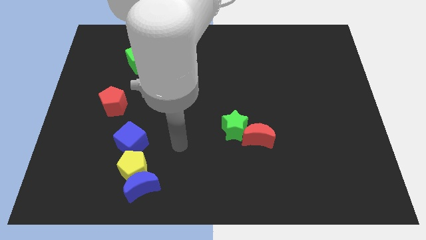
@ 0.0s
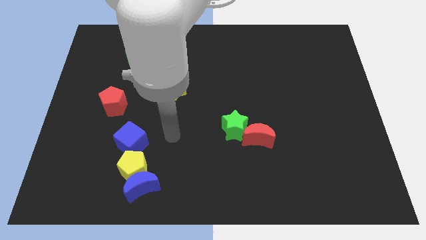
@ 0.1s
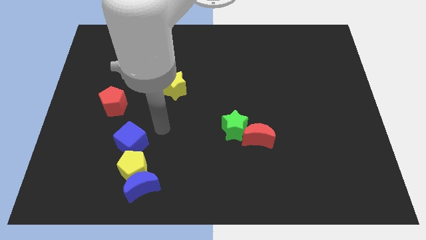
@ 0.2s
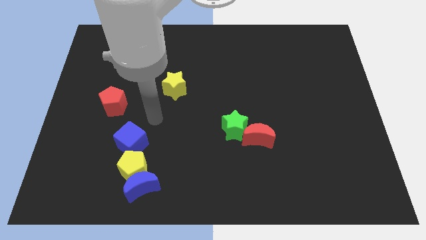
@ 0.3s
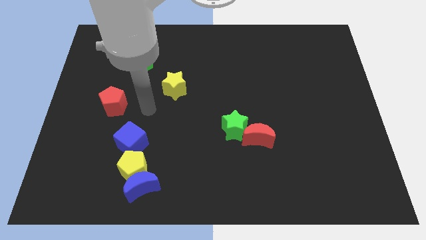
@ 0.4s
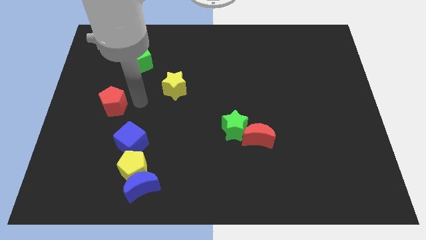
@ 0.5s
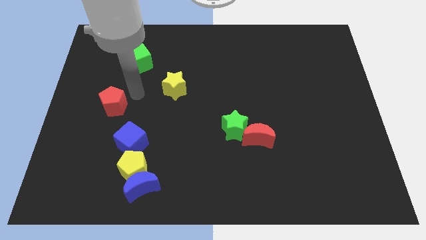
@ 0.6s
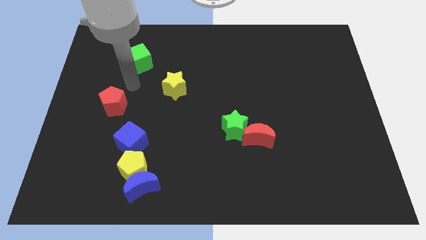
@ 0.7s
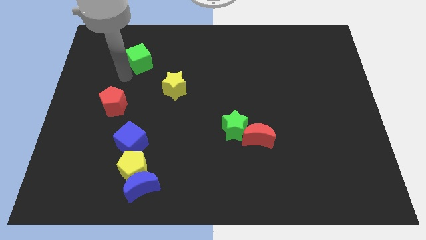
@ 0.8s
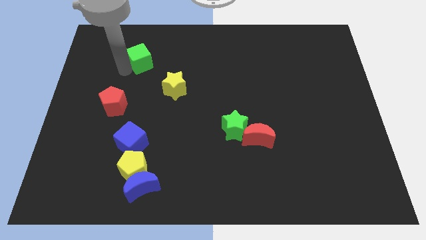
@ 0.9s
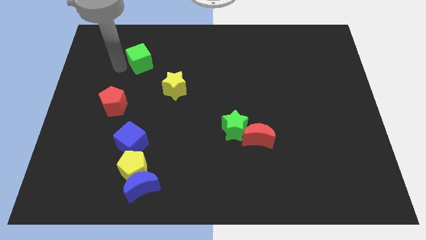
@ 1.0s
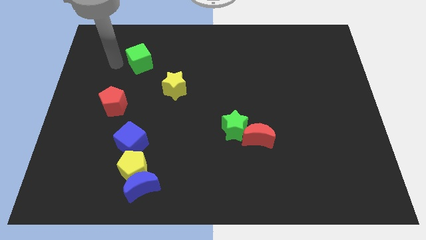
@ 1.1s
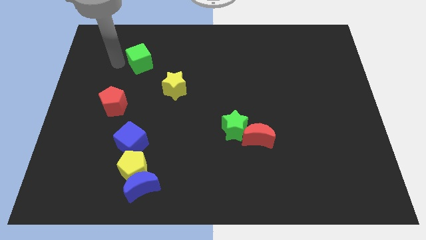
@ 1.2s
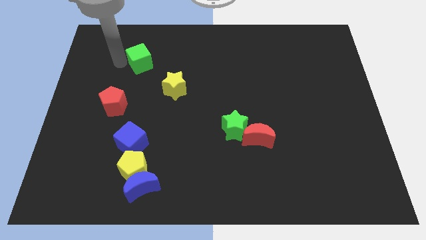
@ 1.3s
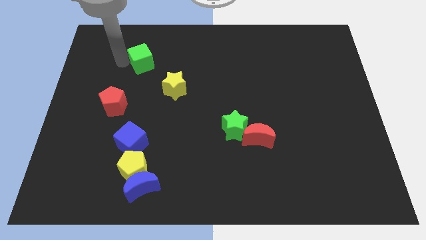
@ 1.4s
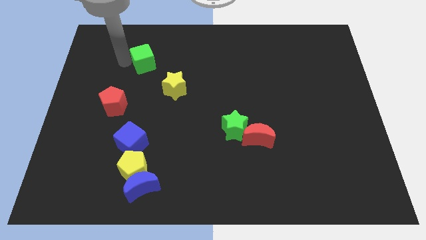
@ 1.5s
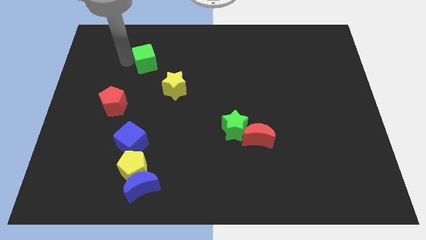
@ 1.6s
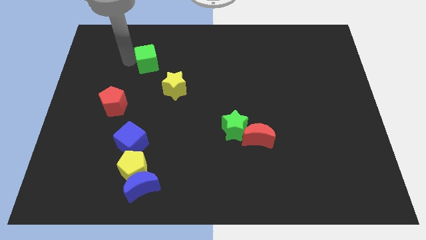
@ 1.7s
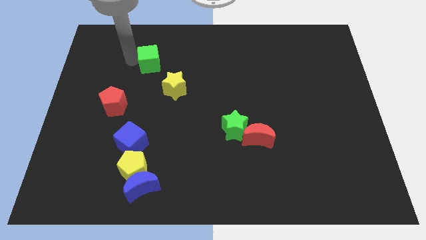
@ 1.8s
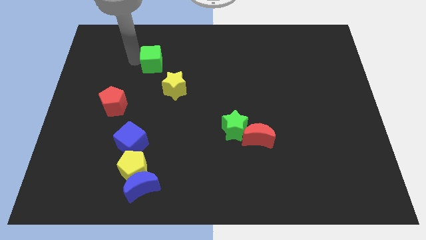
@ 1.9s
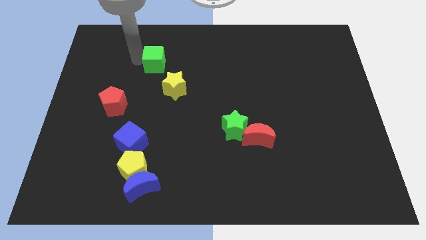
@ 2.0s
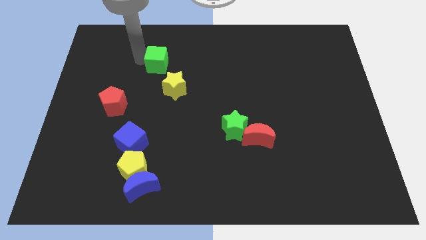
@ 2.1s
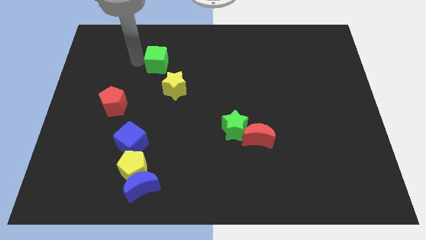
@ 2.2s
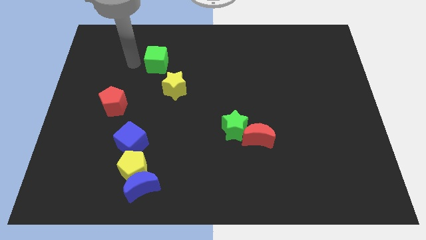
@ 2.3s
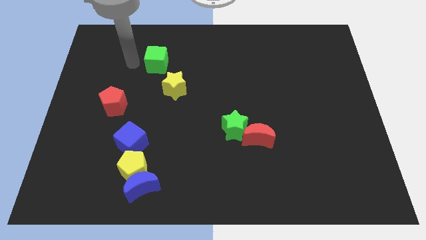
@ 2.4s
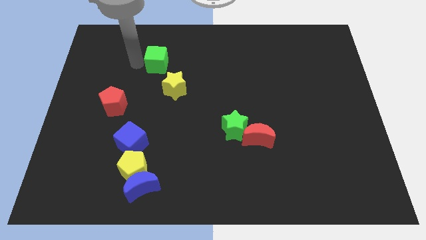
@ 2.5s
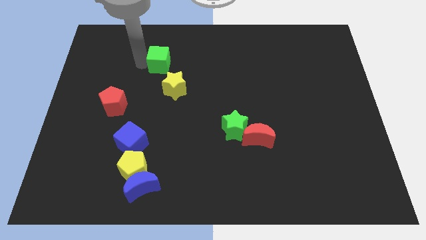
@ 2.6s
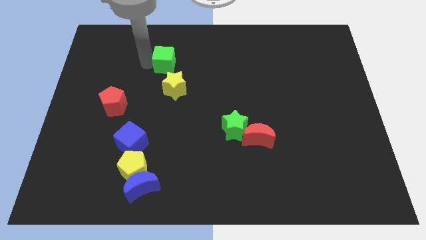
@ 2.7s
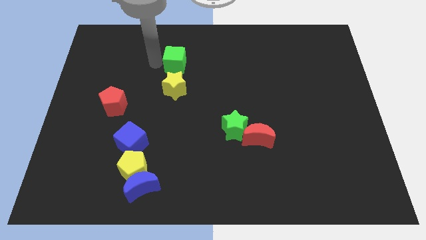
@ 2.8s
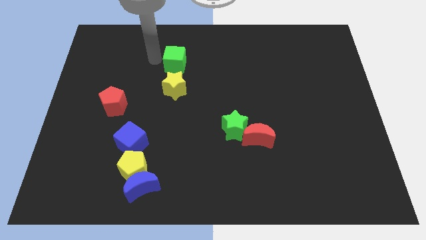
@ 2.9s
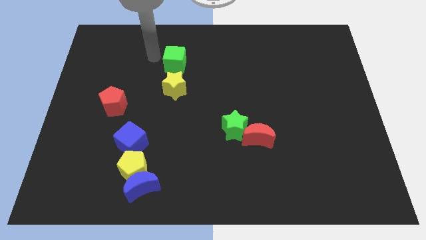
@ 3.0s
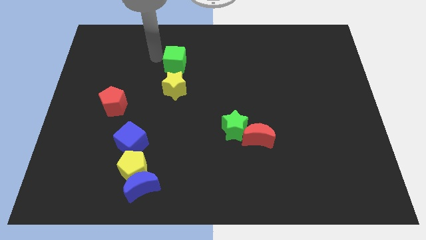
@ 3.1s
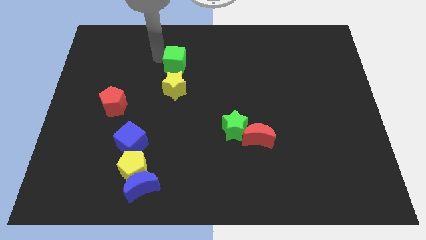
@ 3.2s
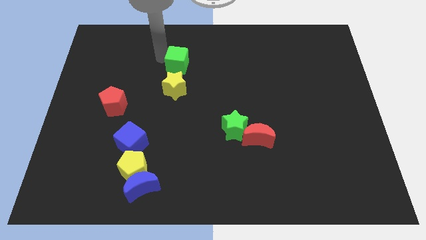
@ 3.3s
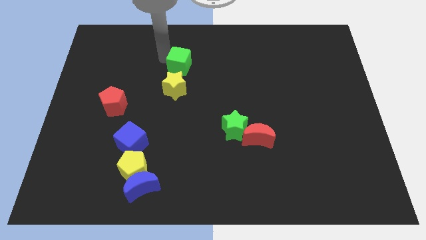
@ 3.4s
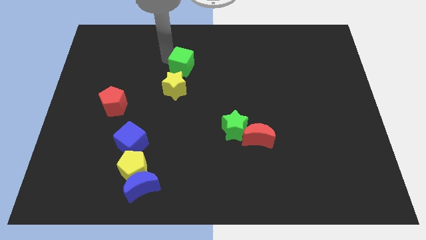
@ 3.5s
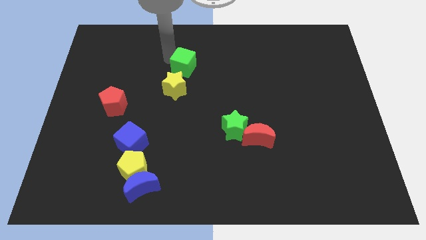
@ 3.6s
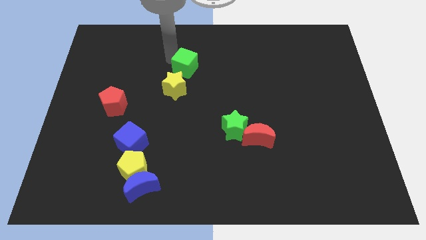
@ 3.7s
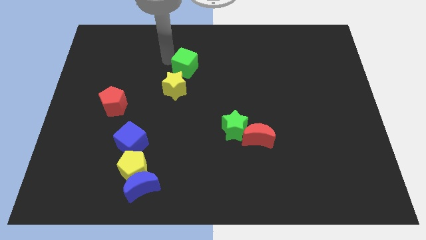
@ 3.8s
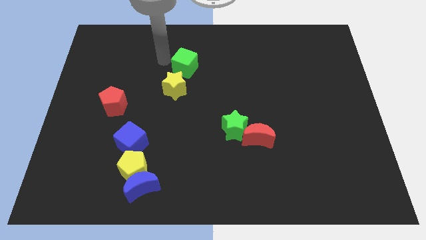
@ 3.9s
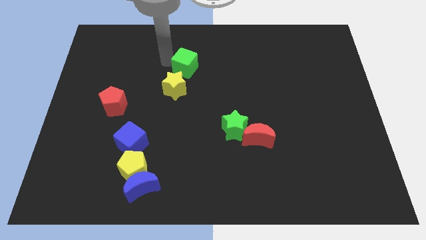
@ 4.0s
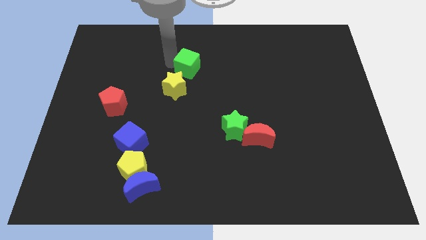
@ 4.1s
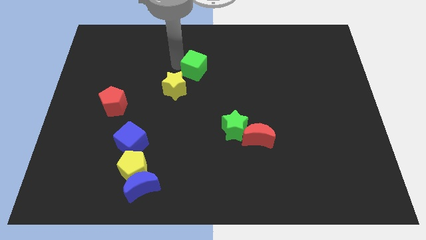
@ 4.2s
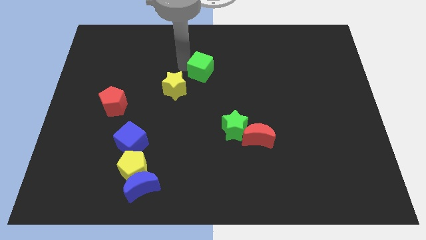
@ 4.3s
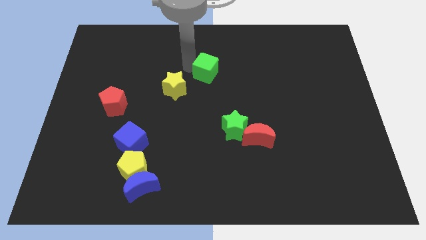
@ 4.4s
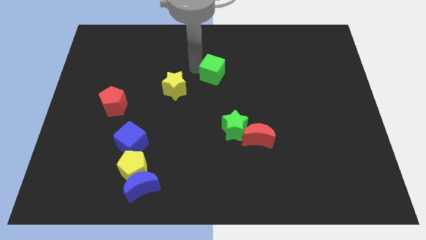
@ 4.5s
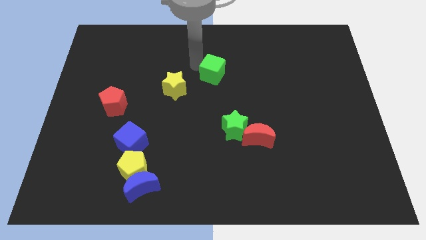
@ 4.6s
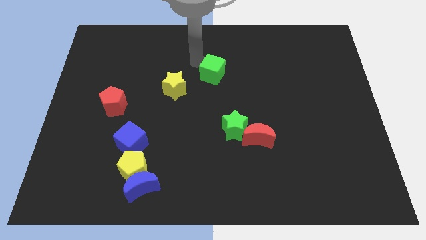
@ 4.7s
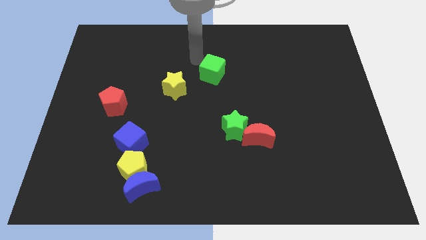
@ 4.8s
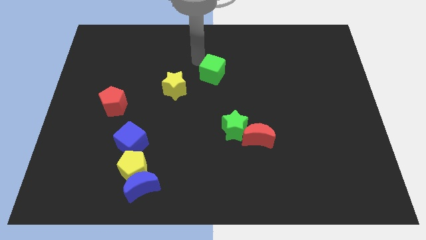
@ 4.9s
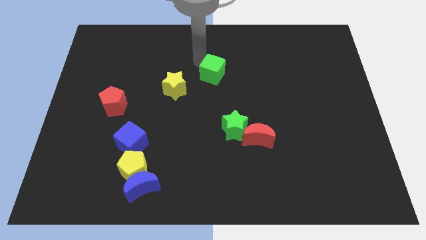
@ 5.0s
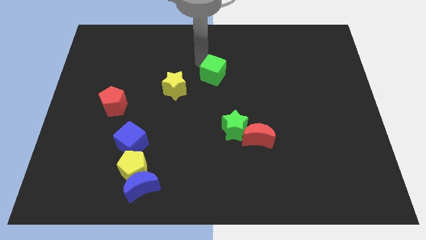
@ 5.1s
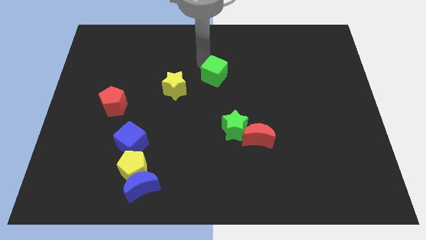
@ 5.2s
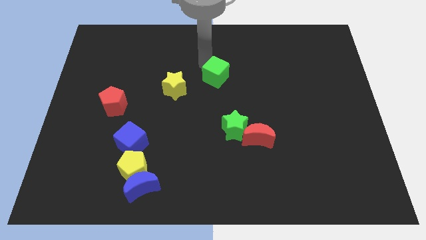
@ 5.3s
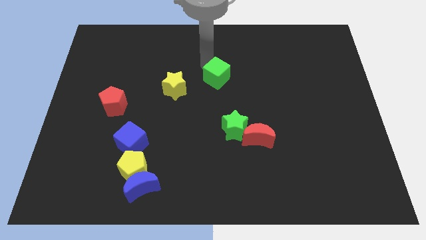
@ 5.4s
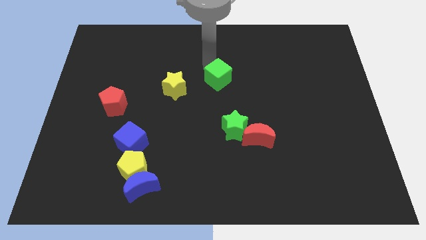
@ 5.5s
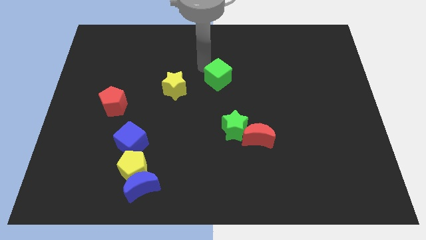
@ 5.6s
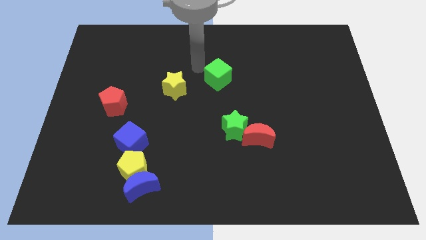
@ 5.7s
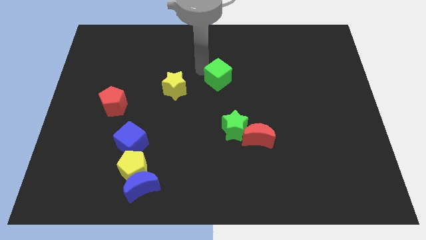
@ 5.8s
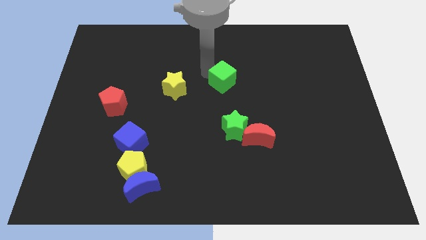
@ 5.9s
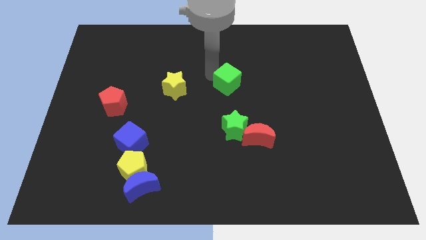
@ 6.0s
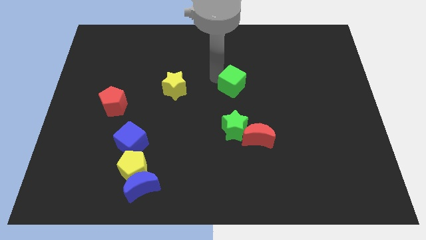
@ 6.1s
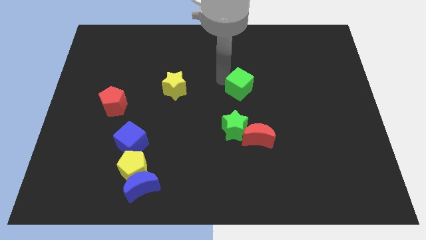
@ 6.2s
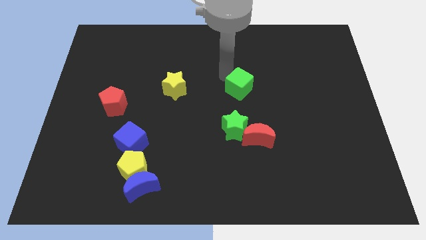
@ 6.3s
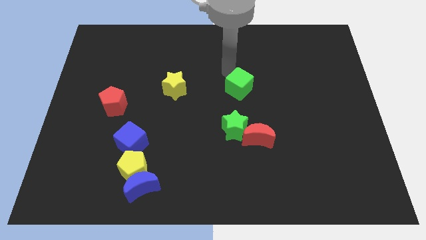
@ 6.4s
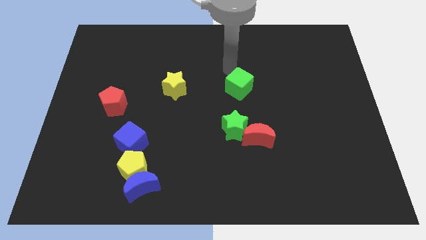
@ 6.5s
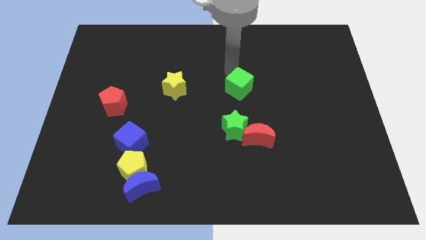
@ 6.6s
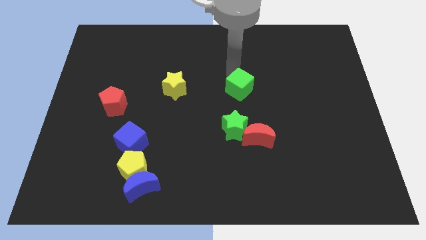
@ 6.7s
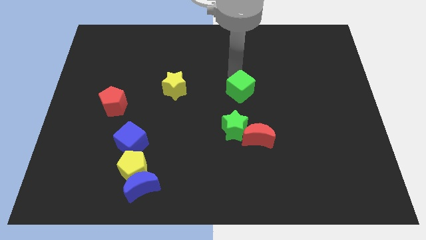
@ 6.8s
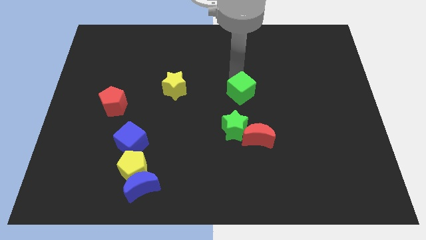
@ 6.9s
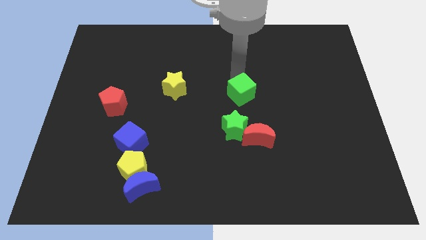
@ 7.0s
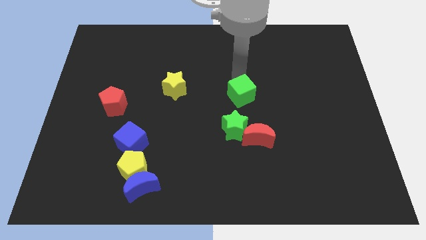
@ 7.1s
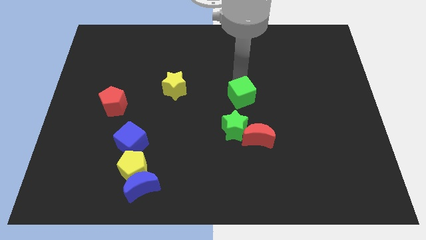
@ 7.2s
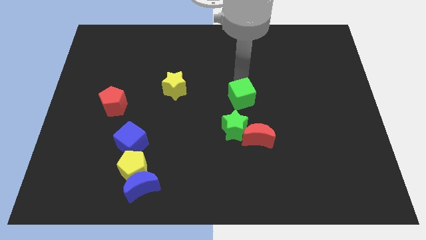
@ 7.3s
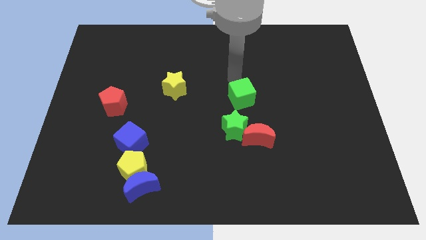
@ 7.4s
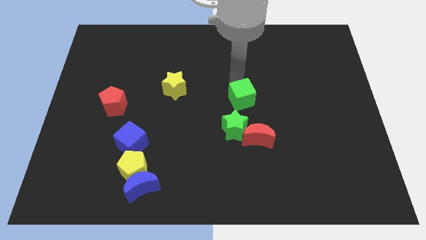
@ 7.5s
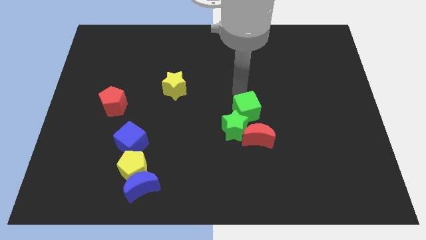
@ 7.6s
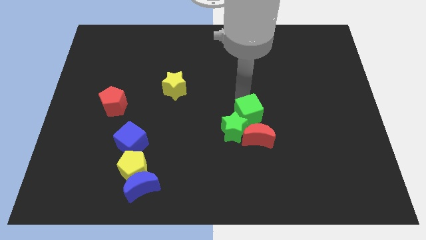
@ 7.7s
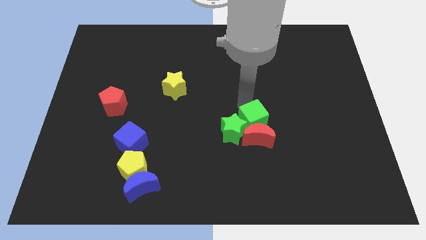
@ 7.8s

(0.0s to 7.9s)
push the green cube towards the red moon
